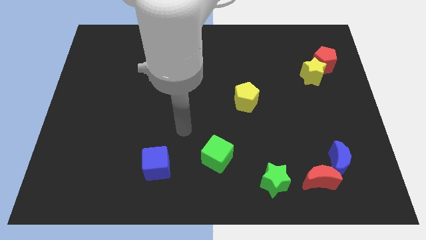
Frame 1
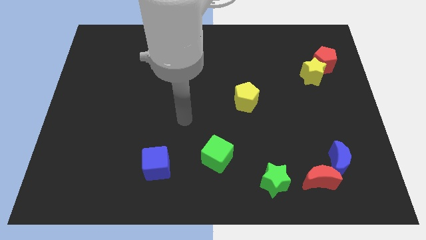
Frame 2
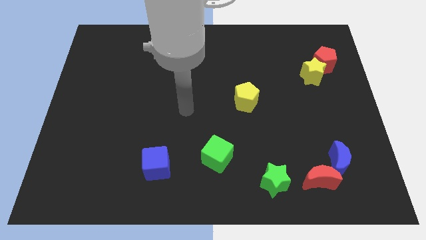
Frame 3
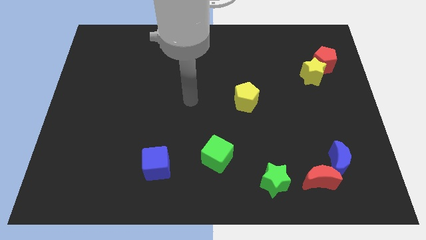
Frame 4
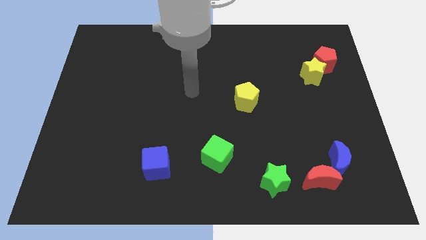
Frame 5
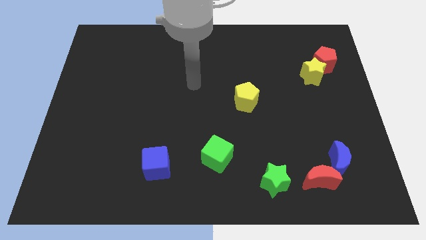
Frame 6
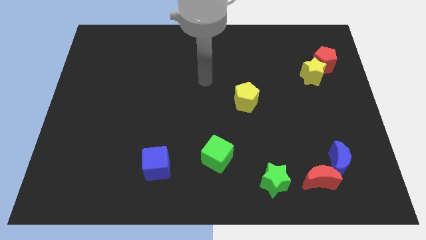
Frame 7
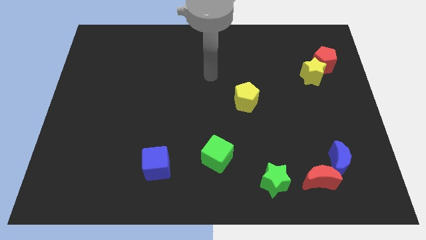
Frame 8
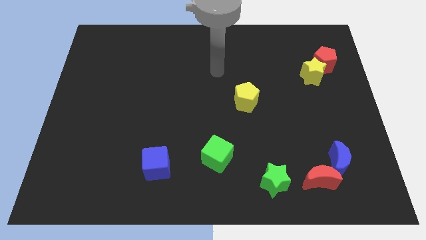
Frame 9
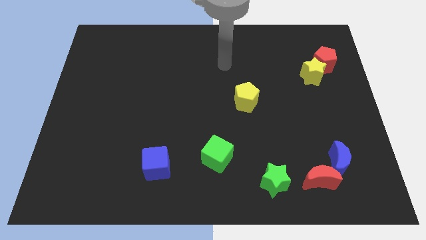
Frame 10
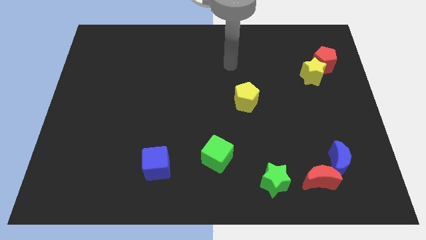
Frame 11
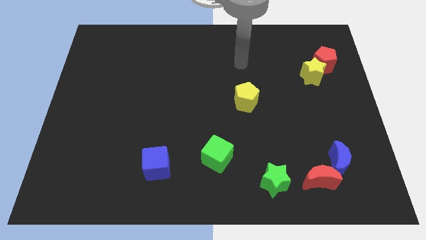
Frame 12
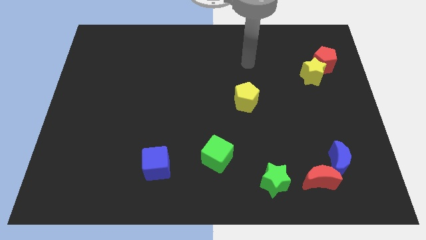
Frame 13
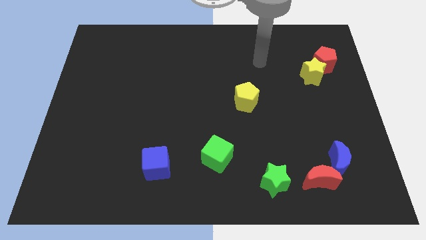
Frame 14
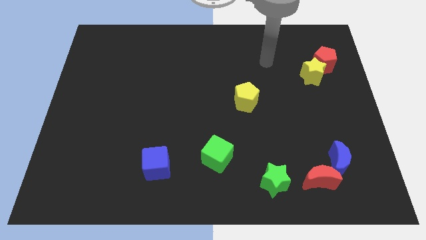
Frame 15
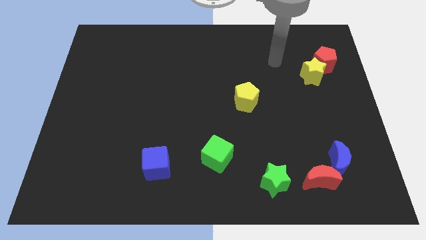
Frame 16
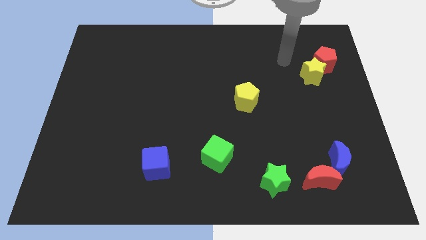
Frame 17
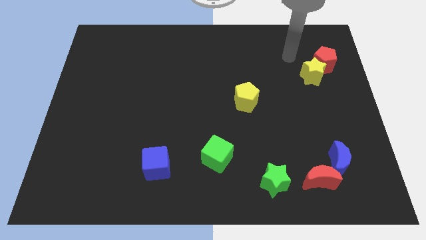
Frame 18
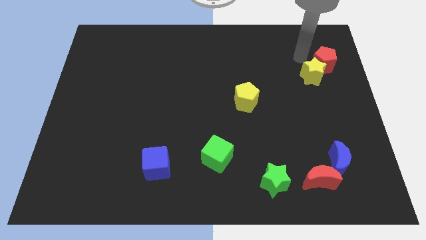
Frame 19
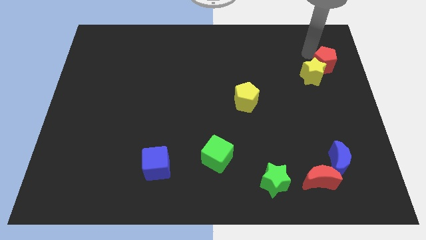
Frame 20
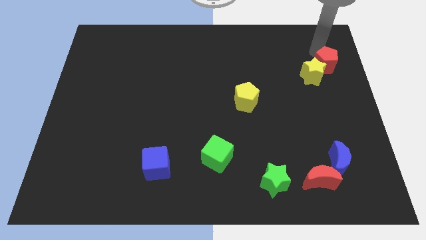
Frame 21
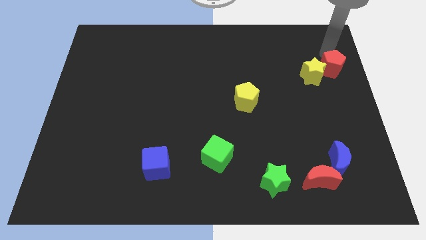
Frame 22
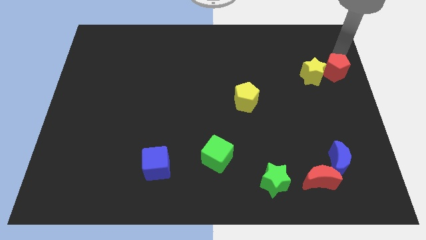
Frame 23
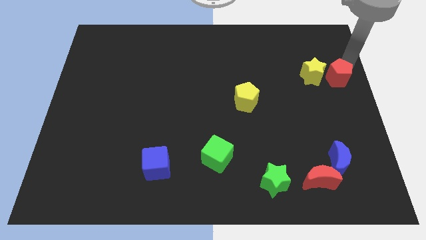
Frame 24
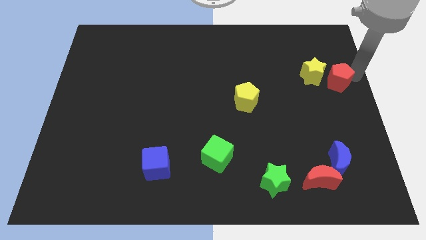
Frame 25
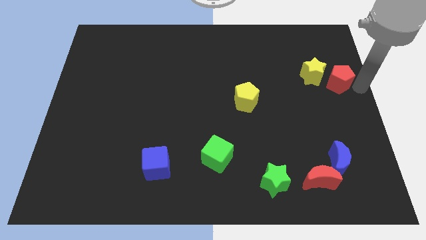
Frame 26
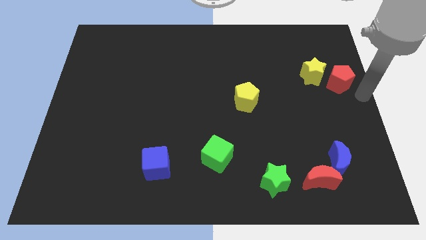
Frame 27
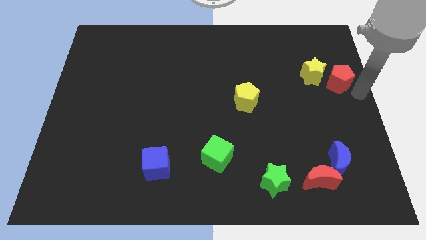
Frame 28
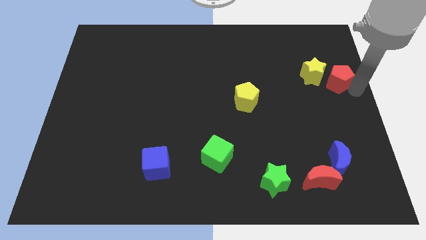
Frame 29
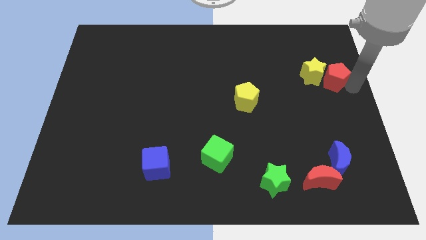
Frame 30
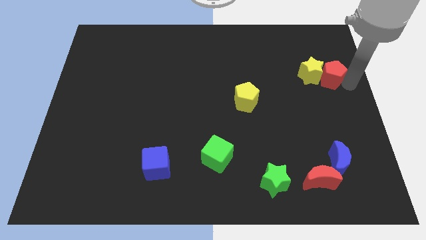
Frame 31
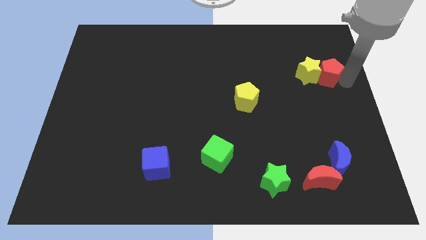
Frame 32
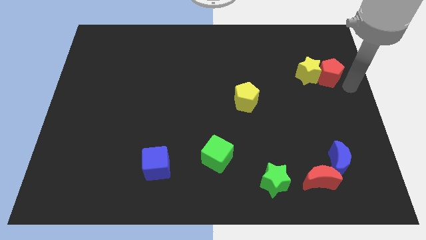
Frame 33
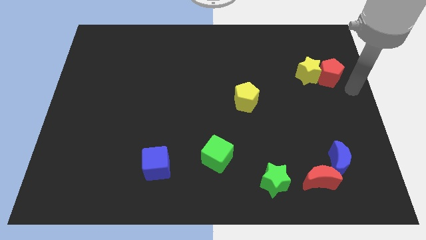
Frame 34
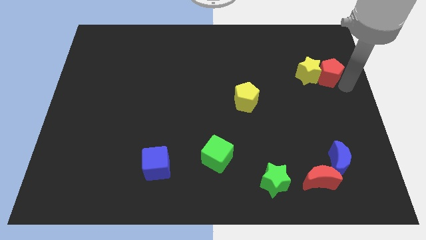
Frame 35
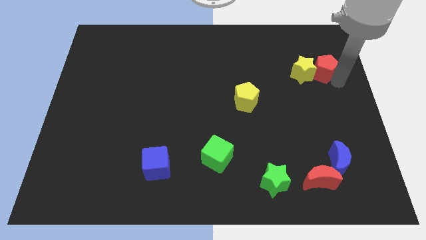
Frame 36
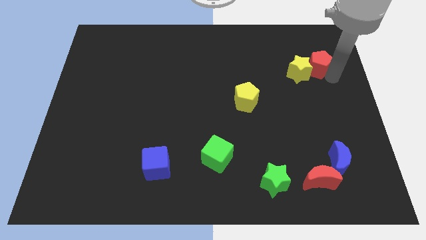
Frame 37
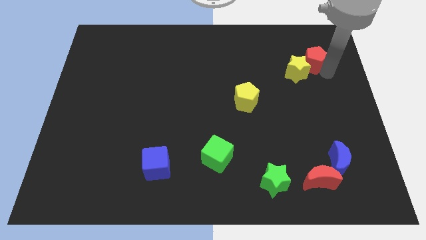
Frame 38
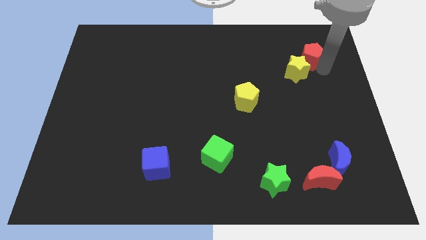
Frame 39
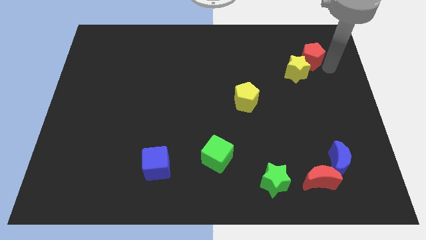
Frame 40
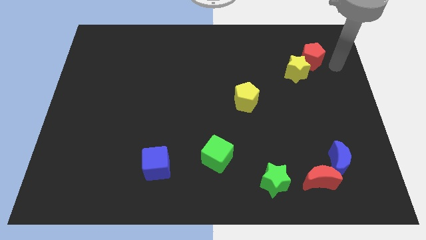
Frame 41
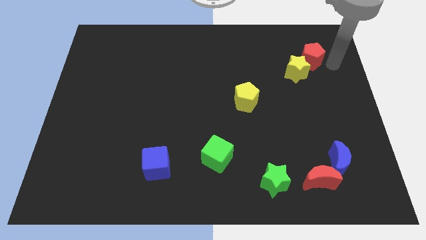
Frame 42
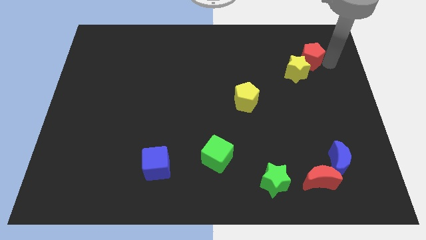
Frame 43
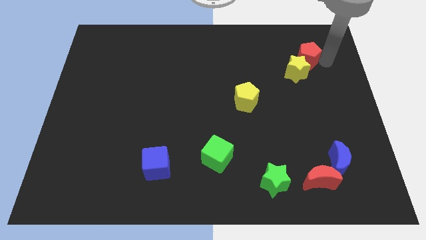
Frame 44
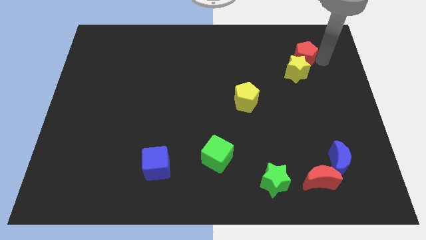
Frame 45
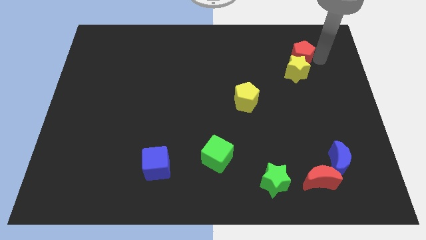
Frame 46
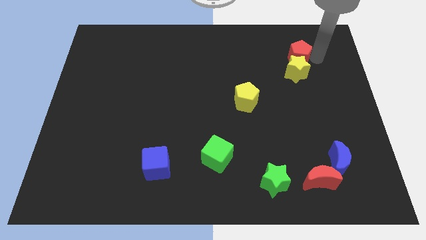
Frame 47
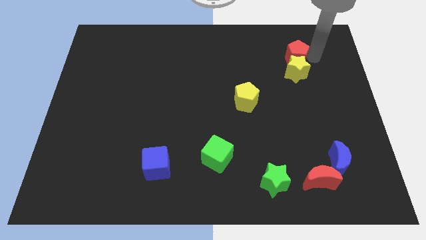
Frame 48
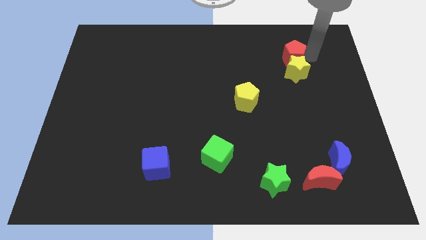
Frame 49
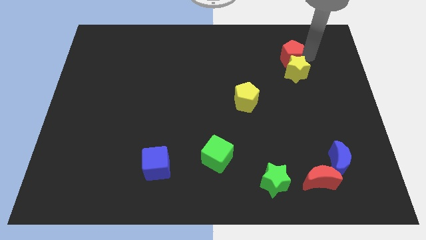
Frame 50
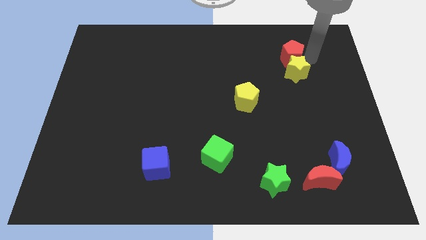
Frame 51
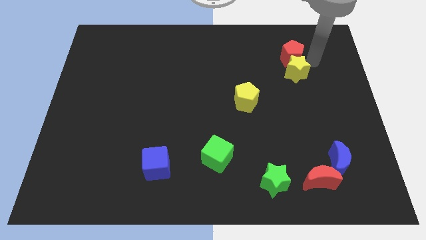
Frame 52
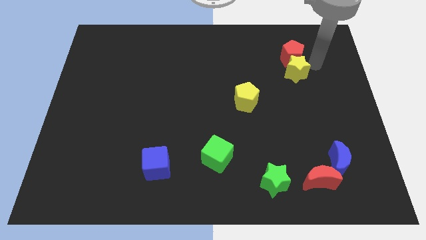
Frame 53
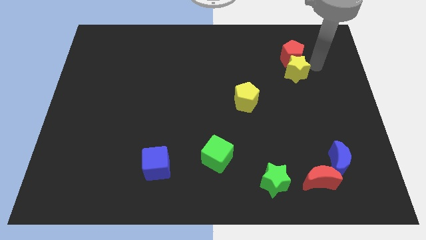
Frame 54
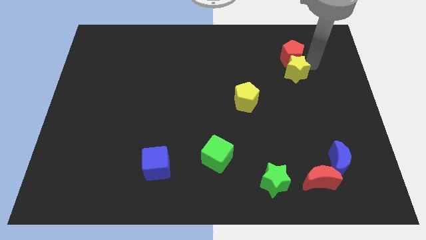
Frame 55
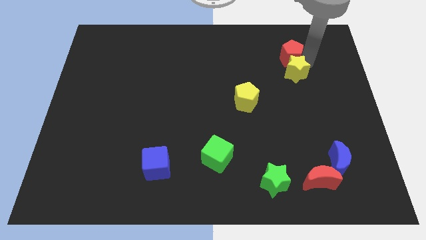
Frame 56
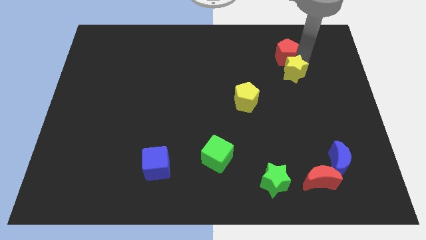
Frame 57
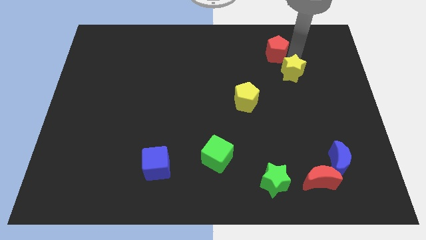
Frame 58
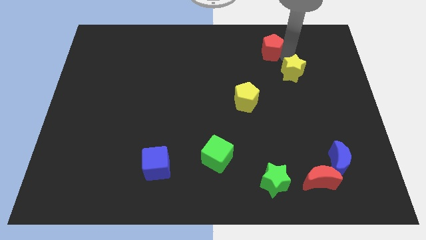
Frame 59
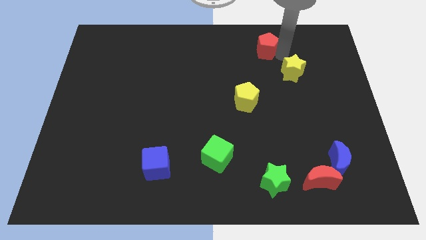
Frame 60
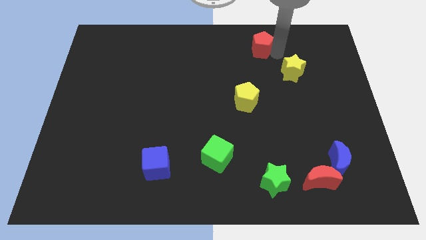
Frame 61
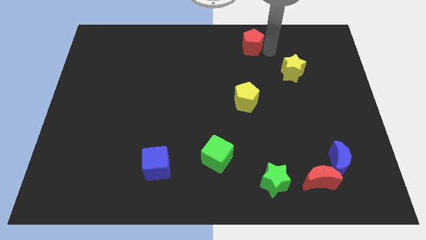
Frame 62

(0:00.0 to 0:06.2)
put the red pentagon to the top side
